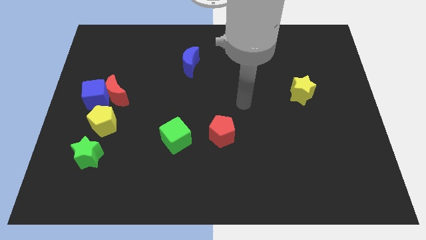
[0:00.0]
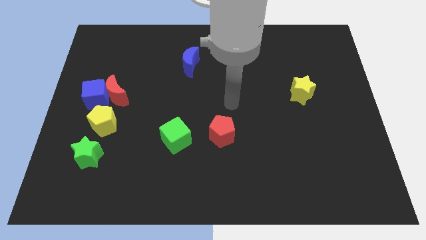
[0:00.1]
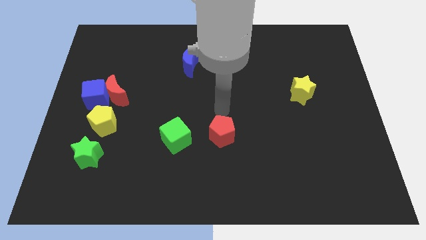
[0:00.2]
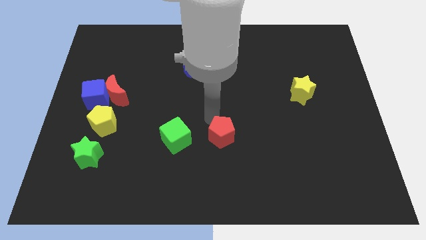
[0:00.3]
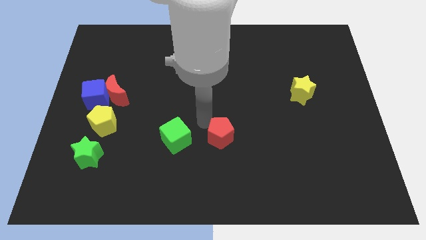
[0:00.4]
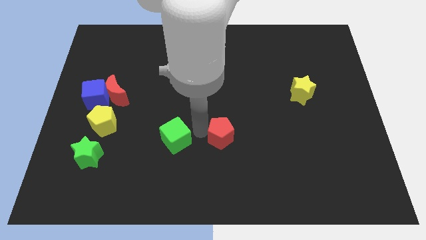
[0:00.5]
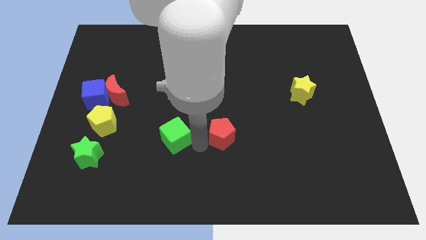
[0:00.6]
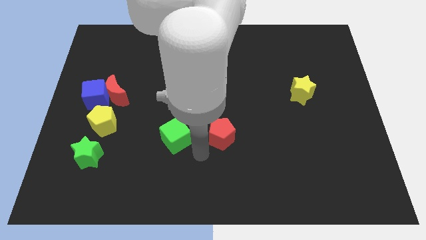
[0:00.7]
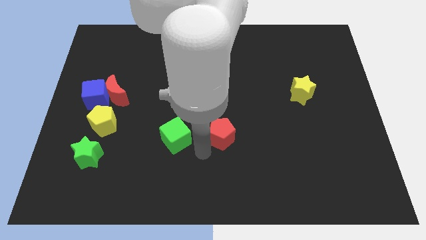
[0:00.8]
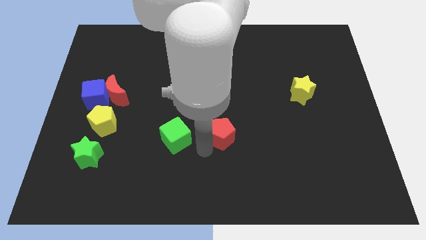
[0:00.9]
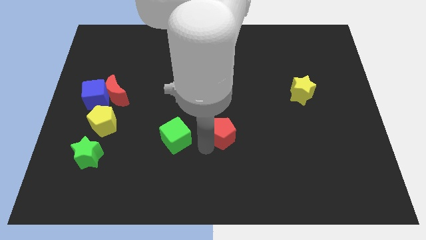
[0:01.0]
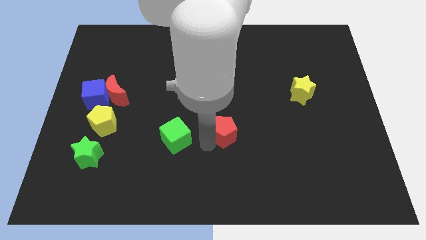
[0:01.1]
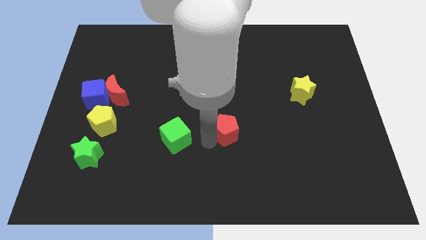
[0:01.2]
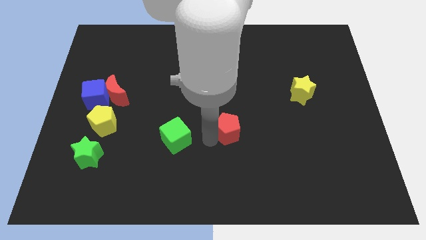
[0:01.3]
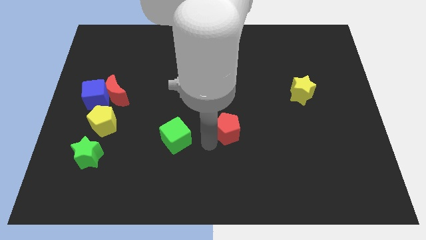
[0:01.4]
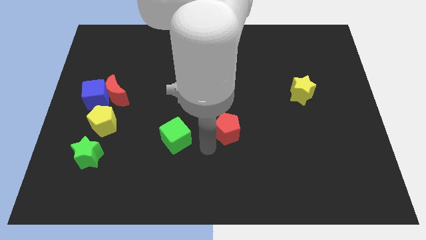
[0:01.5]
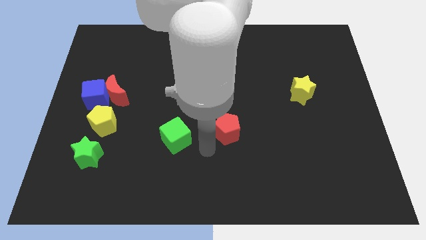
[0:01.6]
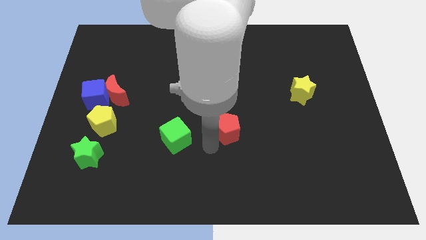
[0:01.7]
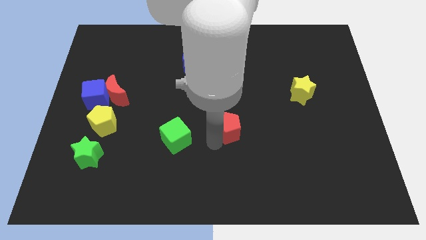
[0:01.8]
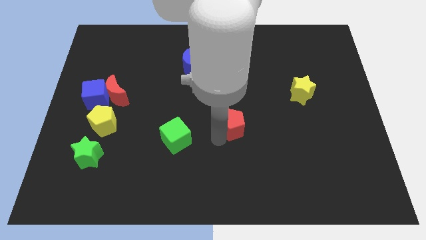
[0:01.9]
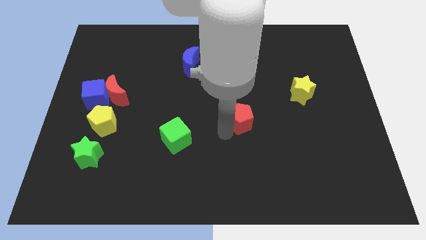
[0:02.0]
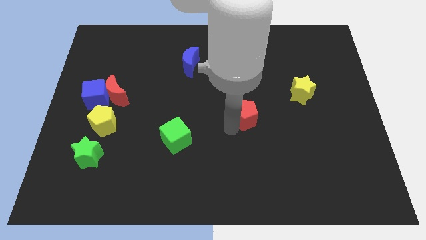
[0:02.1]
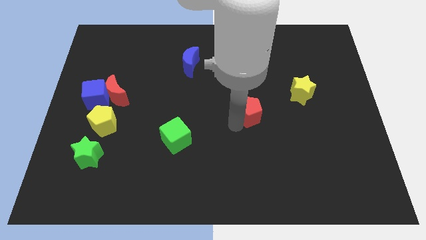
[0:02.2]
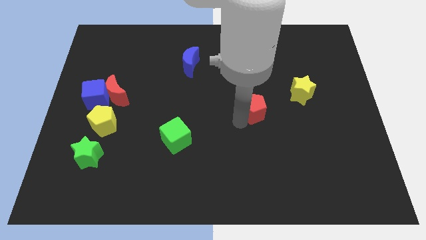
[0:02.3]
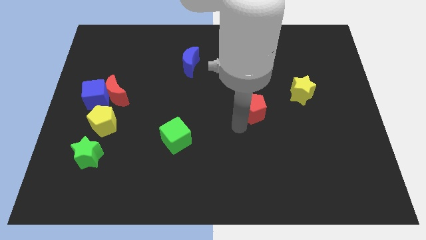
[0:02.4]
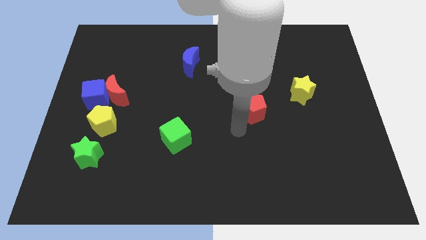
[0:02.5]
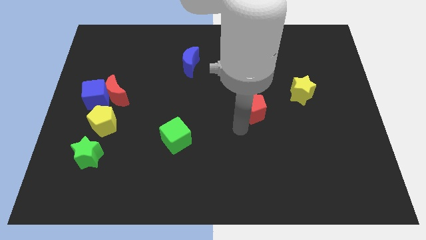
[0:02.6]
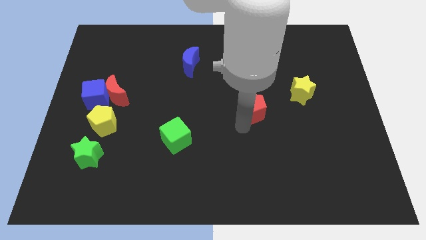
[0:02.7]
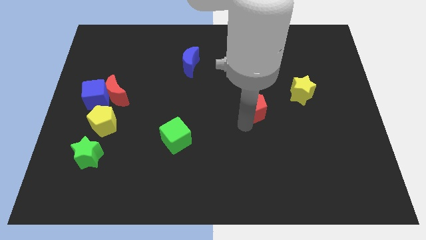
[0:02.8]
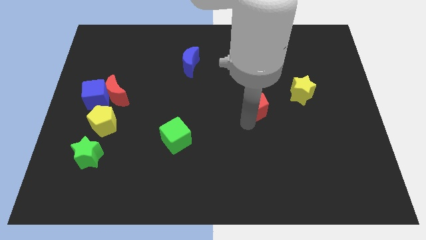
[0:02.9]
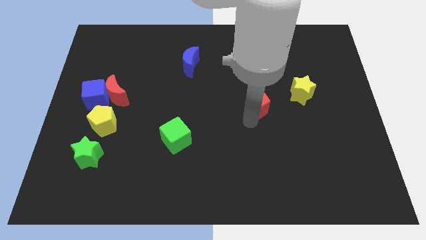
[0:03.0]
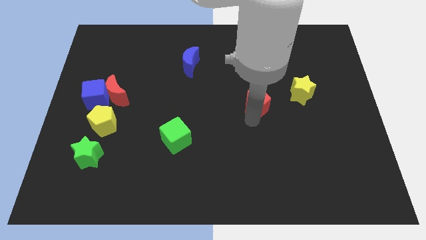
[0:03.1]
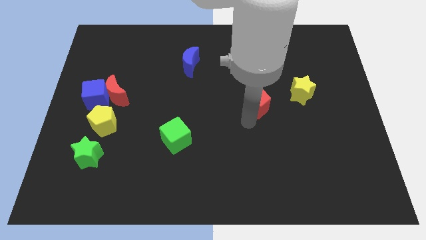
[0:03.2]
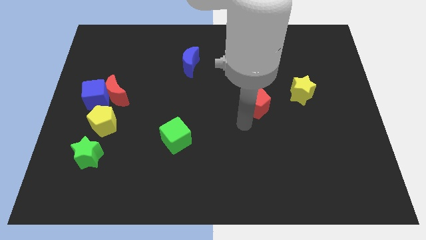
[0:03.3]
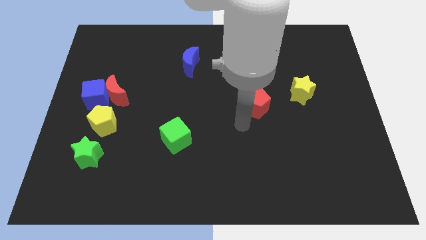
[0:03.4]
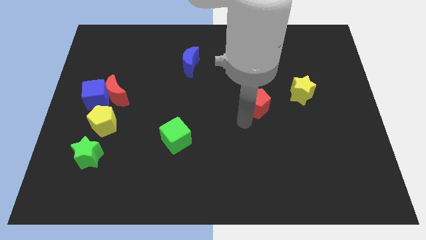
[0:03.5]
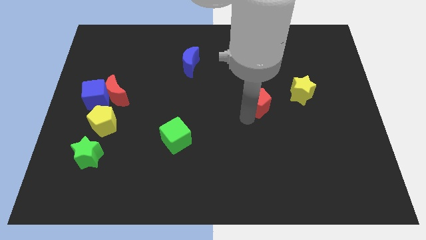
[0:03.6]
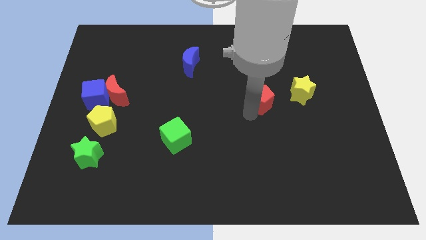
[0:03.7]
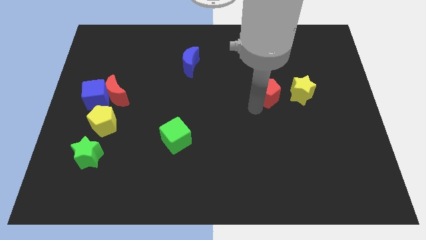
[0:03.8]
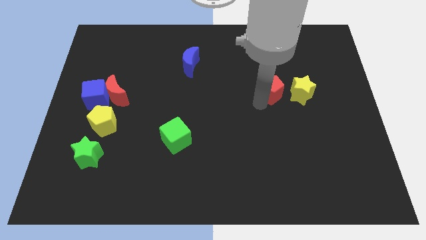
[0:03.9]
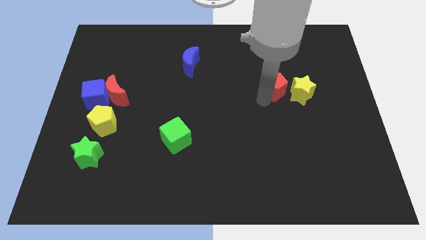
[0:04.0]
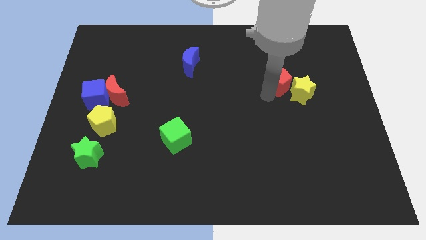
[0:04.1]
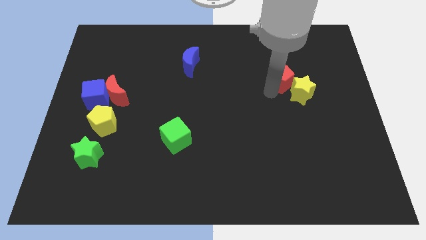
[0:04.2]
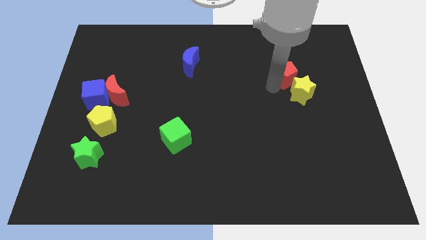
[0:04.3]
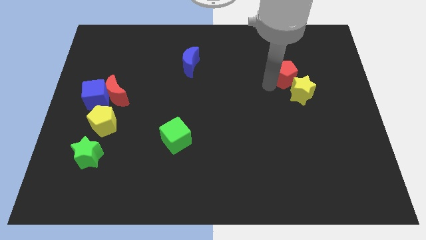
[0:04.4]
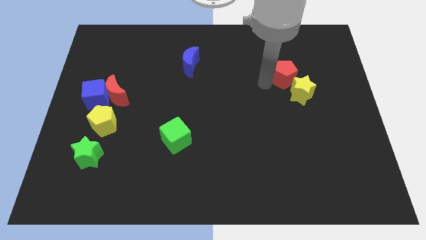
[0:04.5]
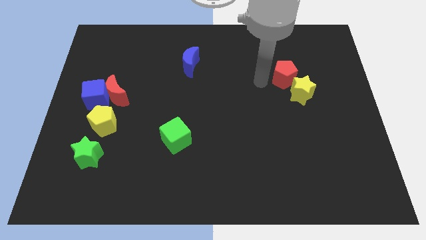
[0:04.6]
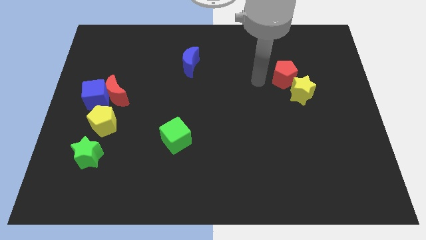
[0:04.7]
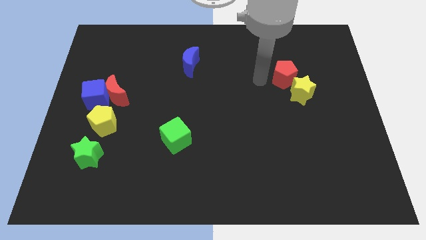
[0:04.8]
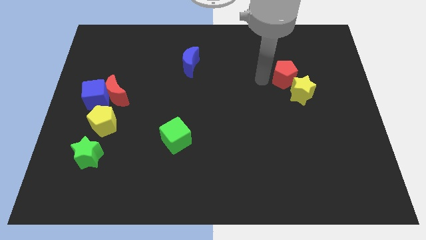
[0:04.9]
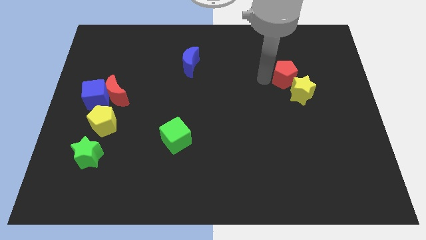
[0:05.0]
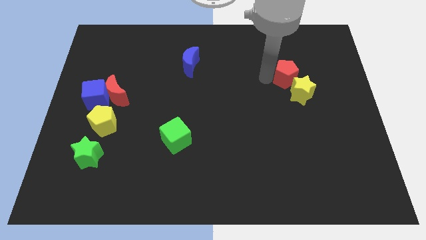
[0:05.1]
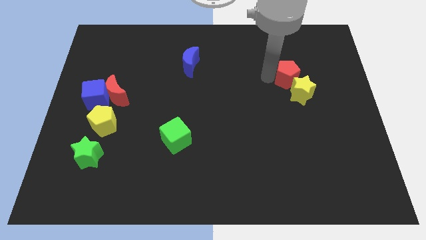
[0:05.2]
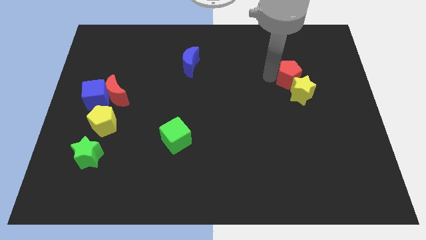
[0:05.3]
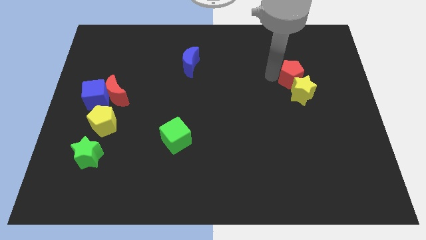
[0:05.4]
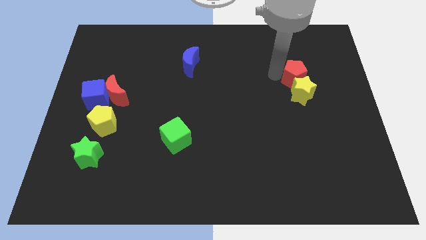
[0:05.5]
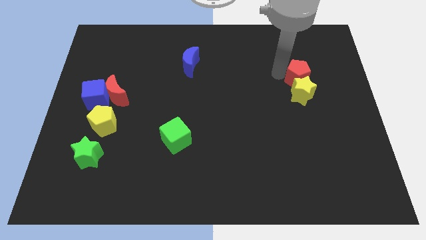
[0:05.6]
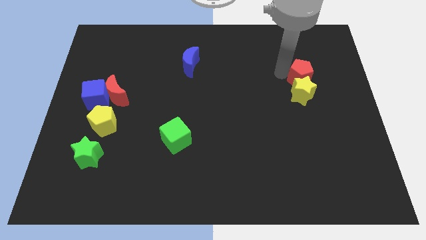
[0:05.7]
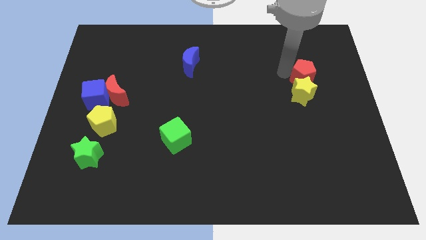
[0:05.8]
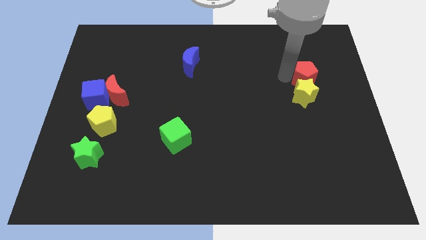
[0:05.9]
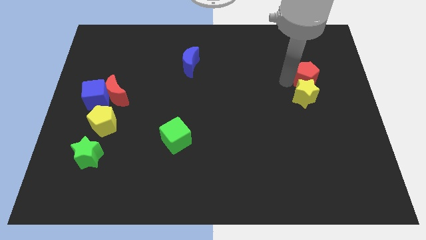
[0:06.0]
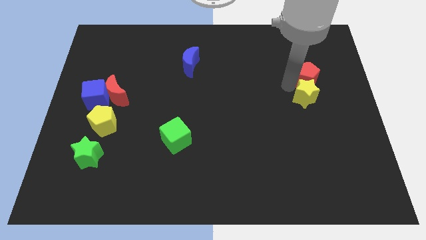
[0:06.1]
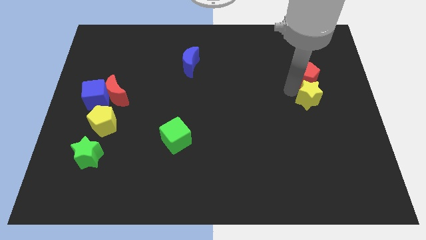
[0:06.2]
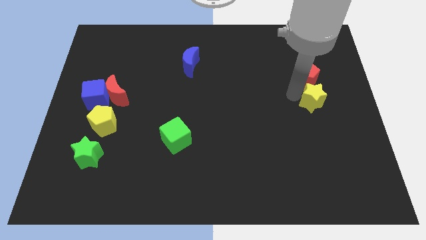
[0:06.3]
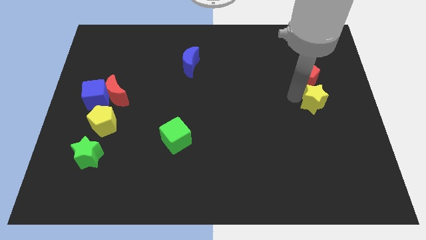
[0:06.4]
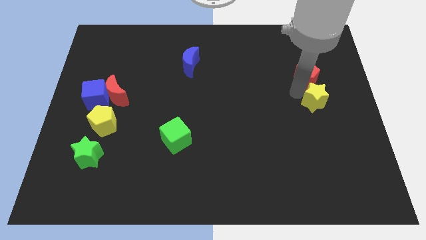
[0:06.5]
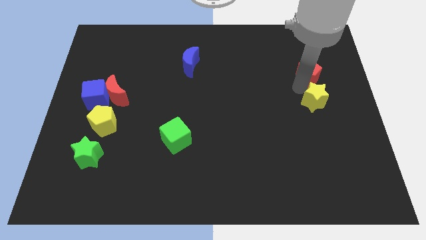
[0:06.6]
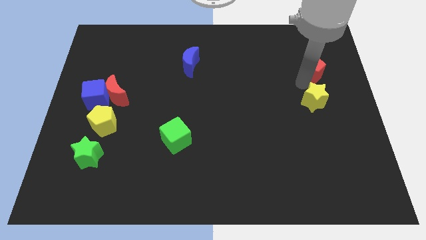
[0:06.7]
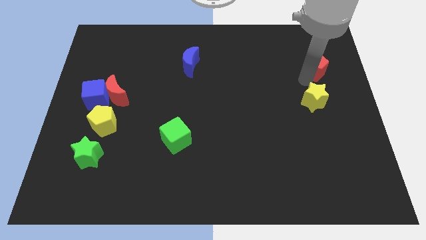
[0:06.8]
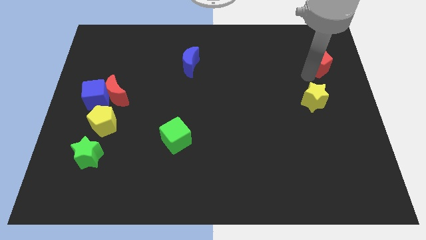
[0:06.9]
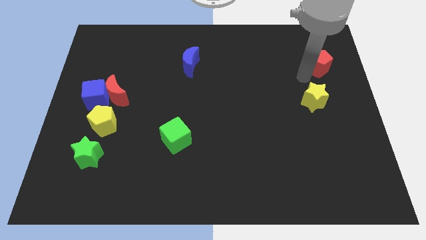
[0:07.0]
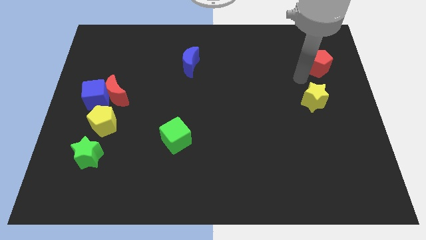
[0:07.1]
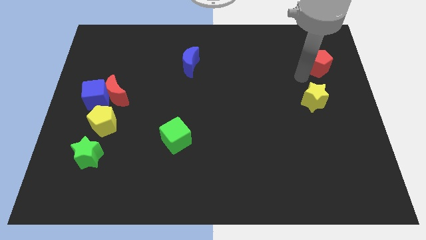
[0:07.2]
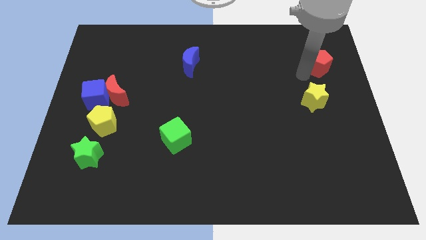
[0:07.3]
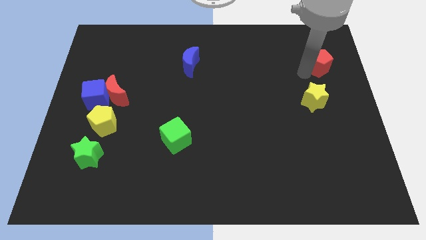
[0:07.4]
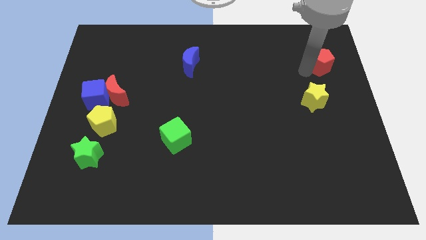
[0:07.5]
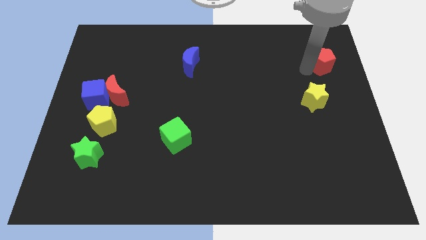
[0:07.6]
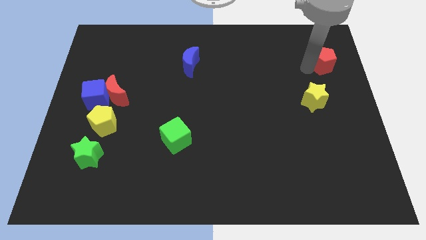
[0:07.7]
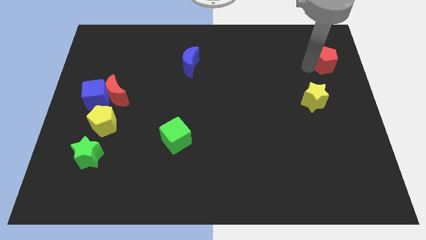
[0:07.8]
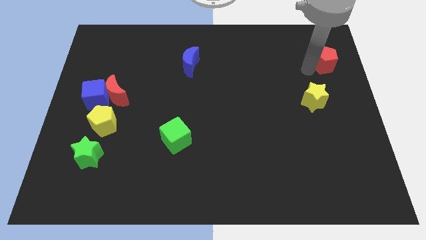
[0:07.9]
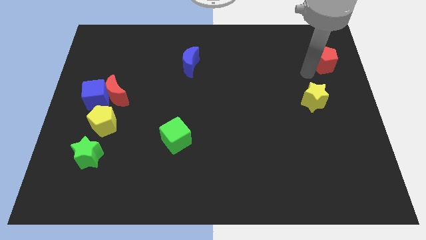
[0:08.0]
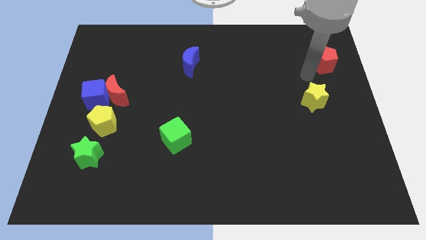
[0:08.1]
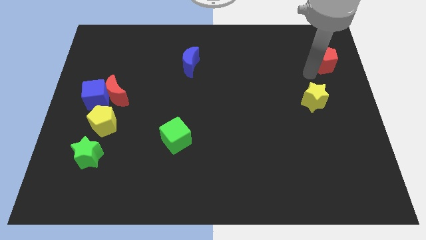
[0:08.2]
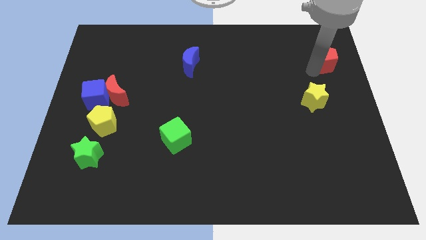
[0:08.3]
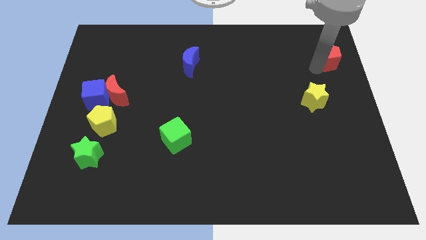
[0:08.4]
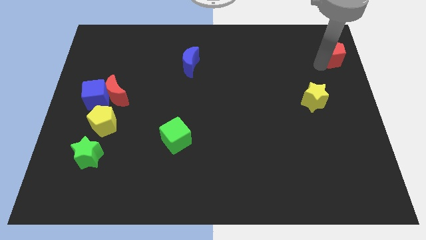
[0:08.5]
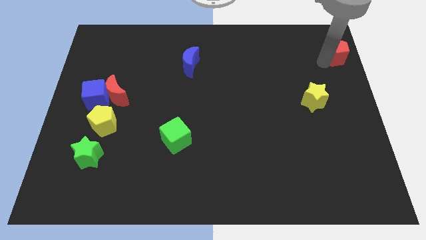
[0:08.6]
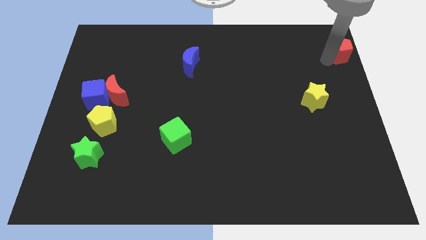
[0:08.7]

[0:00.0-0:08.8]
put the red pentagon to the top right corner
